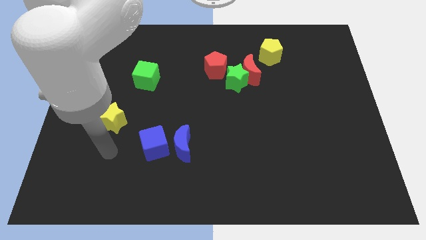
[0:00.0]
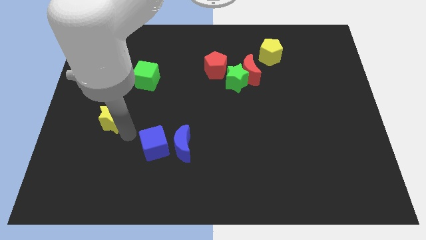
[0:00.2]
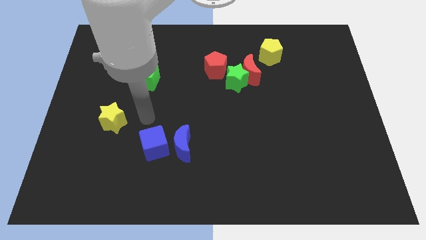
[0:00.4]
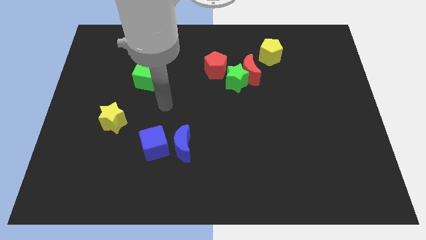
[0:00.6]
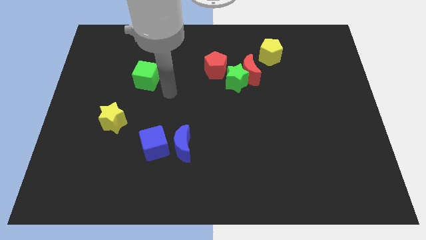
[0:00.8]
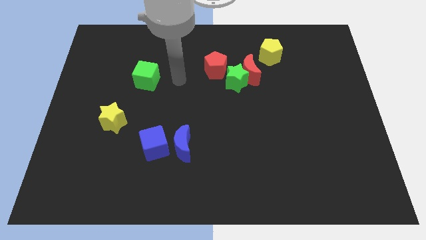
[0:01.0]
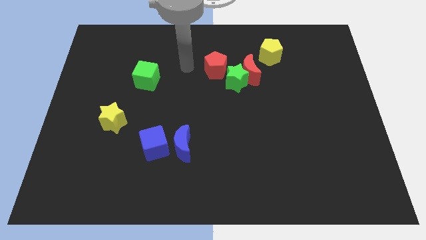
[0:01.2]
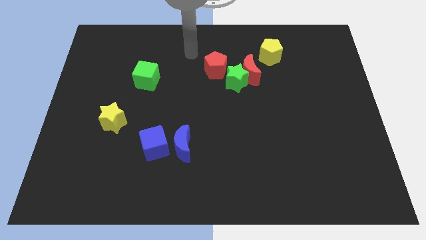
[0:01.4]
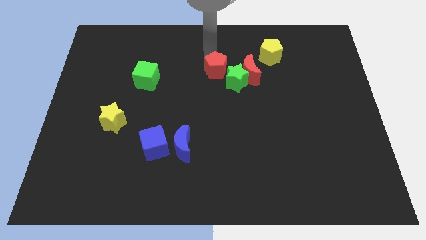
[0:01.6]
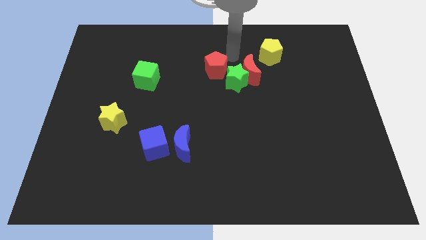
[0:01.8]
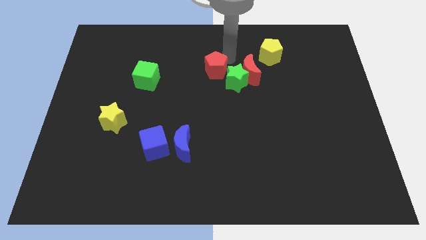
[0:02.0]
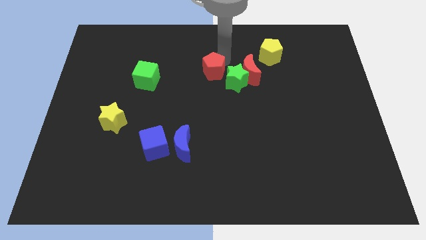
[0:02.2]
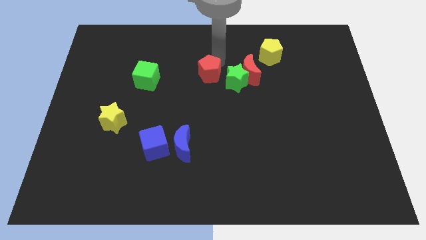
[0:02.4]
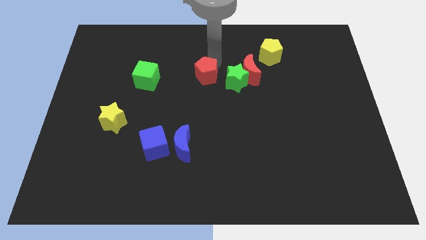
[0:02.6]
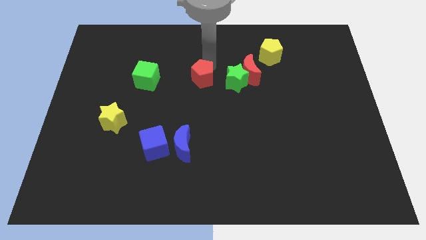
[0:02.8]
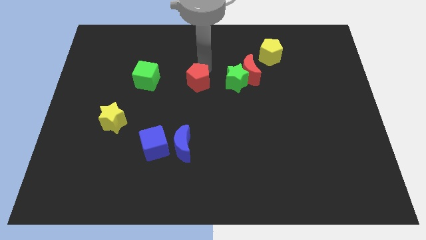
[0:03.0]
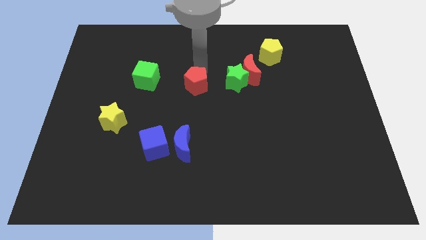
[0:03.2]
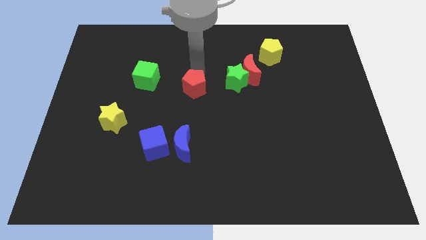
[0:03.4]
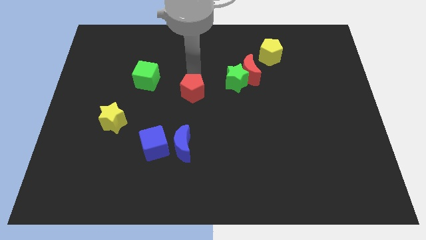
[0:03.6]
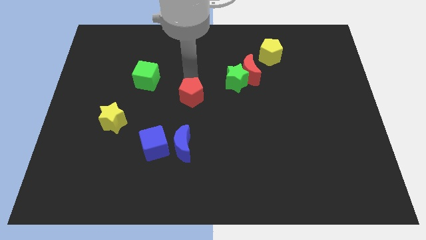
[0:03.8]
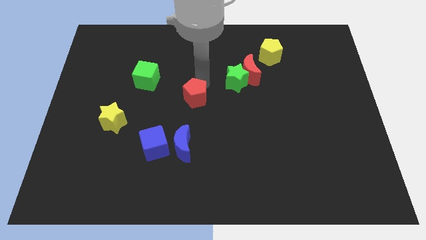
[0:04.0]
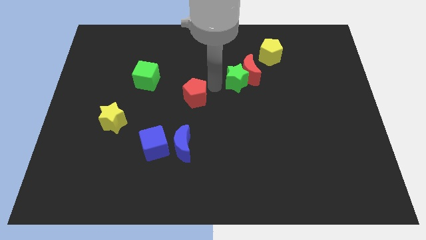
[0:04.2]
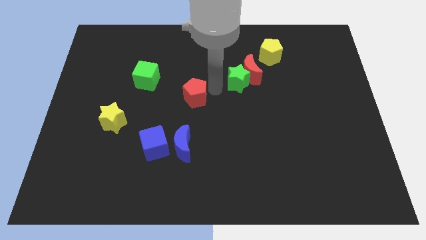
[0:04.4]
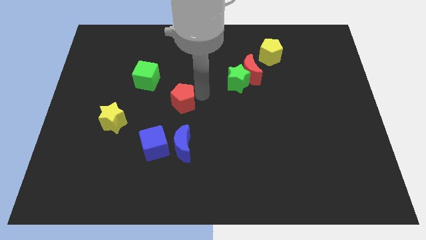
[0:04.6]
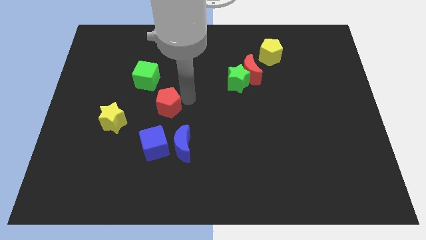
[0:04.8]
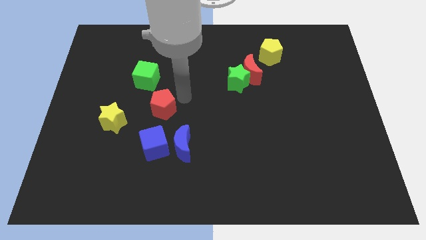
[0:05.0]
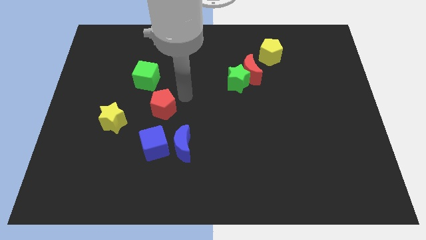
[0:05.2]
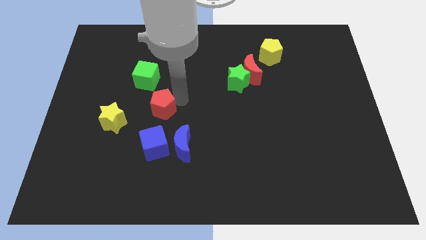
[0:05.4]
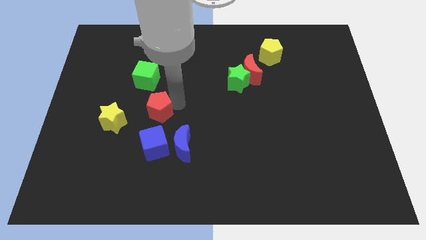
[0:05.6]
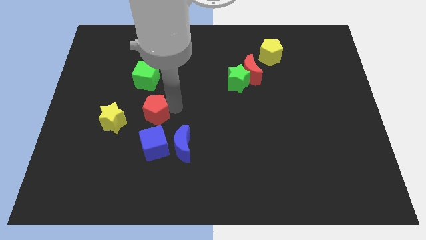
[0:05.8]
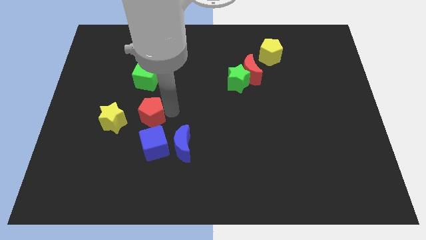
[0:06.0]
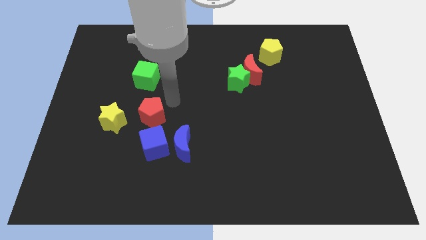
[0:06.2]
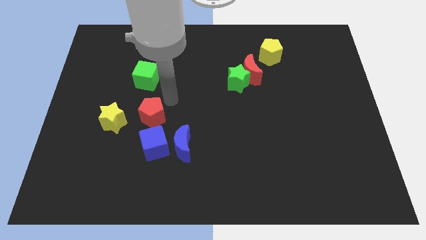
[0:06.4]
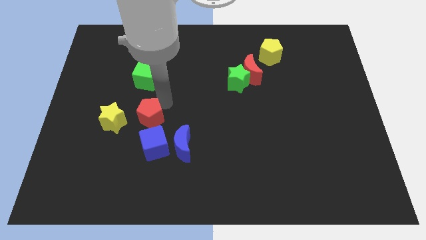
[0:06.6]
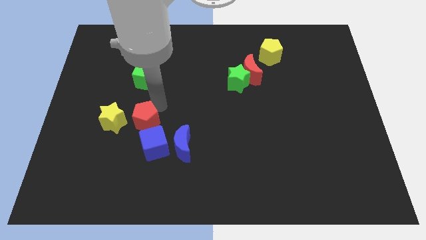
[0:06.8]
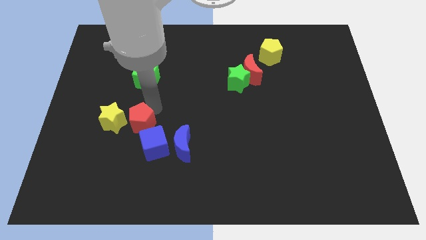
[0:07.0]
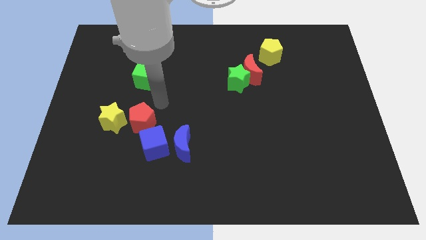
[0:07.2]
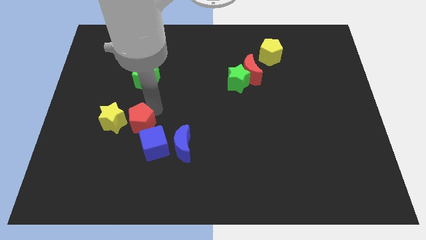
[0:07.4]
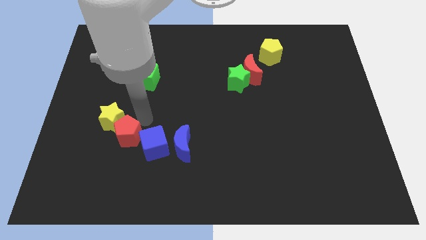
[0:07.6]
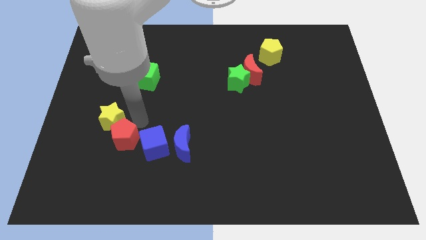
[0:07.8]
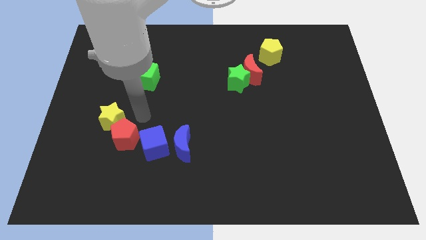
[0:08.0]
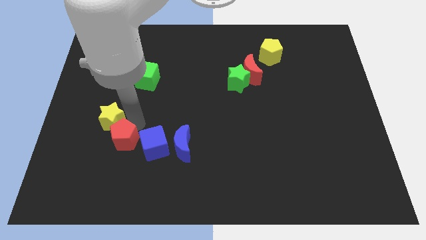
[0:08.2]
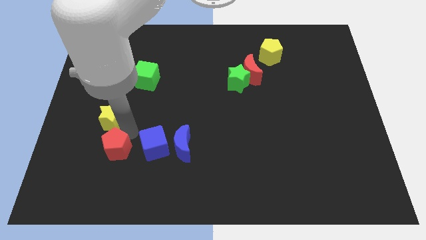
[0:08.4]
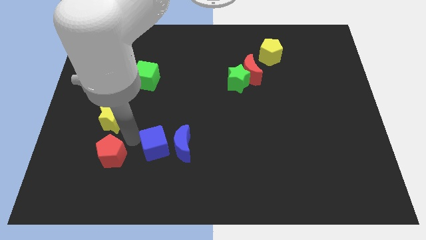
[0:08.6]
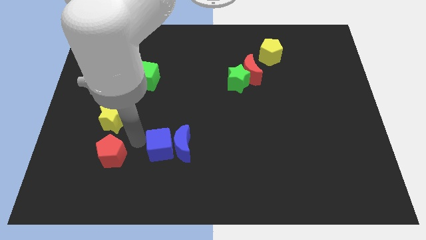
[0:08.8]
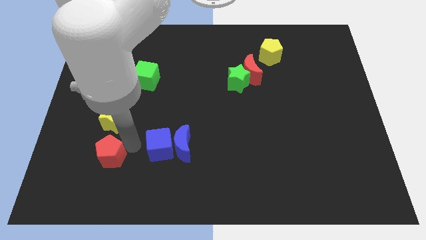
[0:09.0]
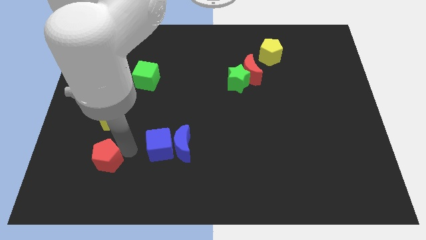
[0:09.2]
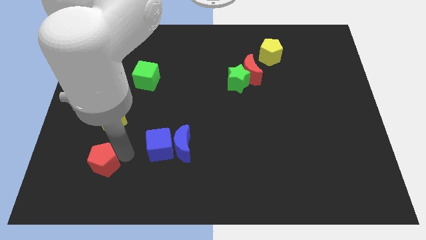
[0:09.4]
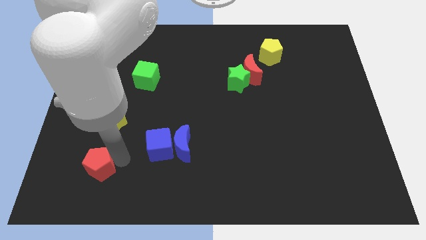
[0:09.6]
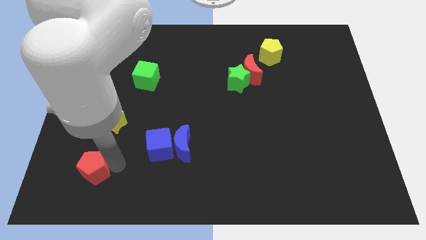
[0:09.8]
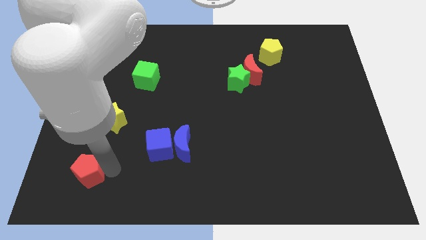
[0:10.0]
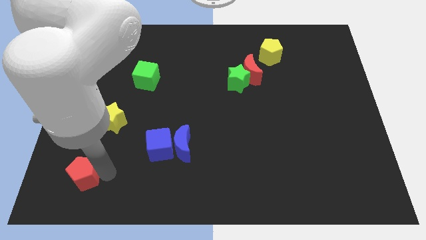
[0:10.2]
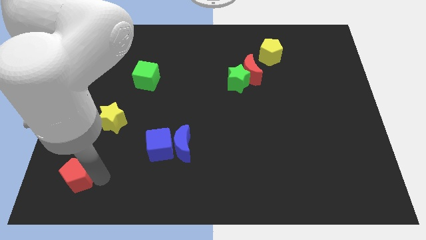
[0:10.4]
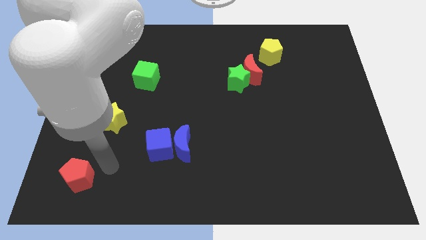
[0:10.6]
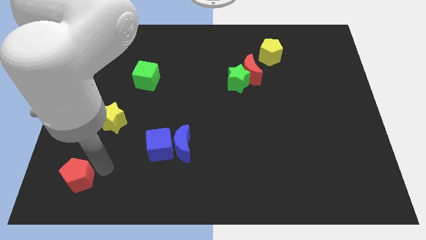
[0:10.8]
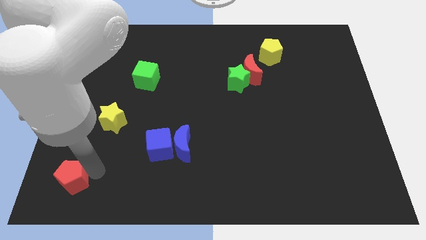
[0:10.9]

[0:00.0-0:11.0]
push the red pentagon to the bottom left corner

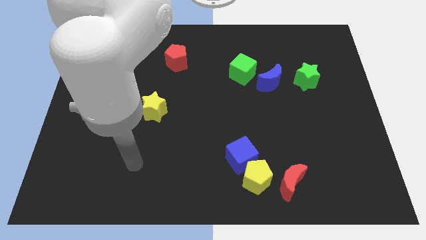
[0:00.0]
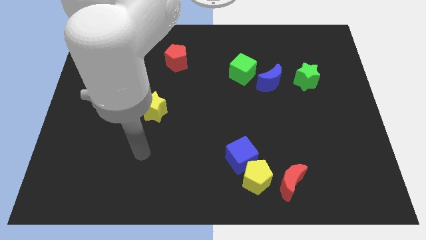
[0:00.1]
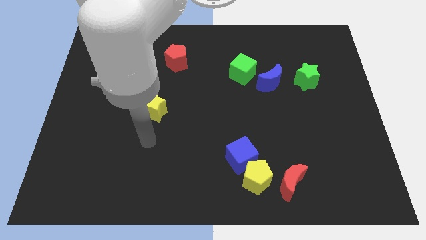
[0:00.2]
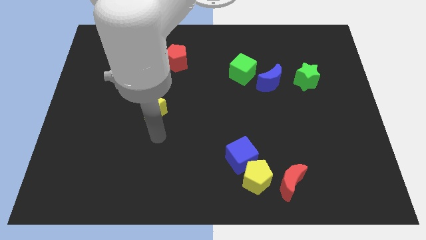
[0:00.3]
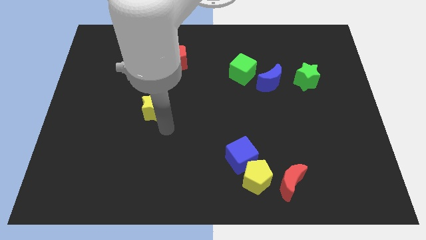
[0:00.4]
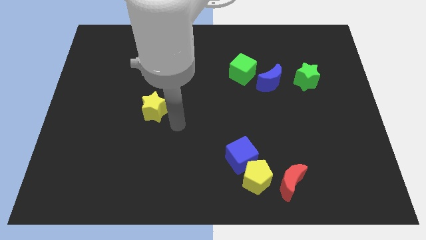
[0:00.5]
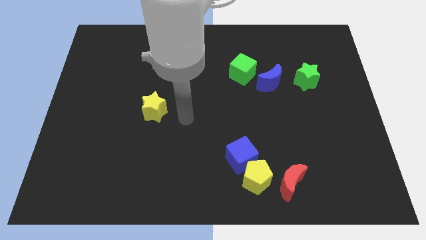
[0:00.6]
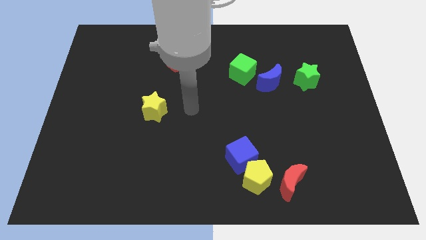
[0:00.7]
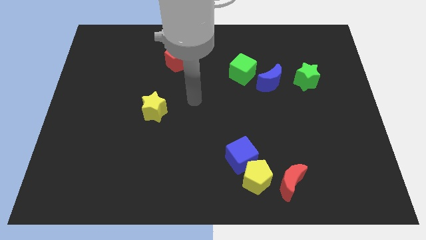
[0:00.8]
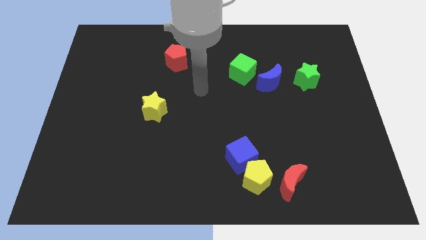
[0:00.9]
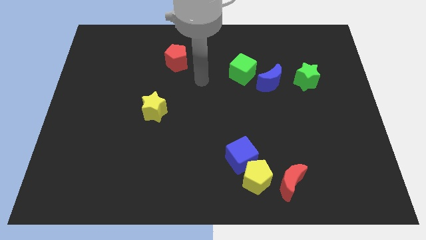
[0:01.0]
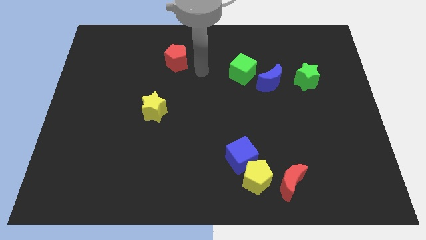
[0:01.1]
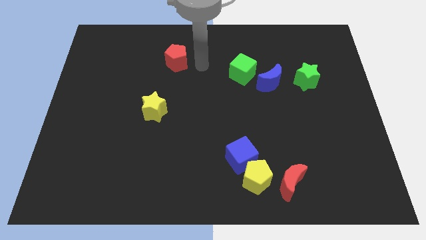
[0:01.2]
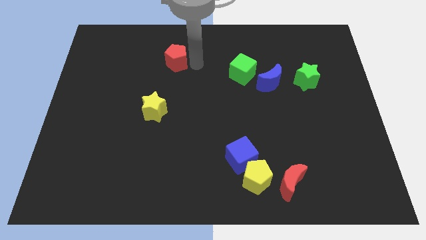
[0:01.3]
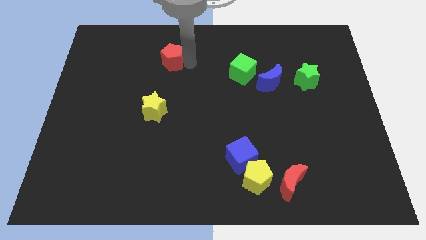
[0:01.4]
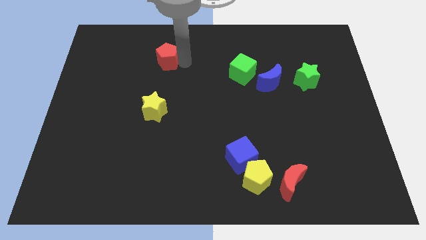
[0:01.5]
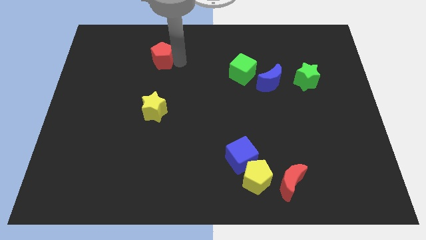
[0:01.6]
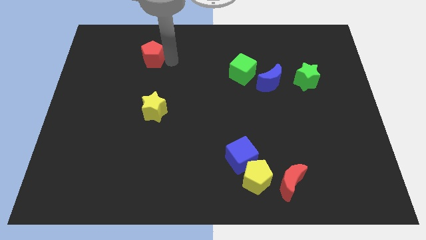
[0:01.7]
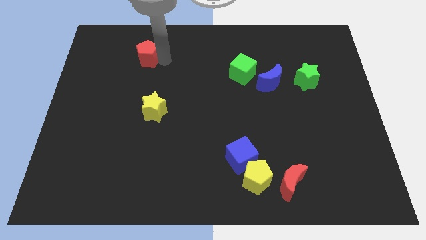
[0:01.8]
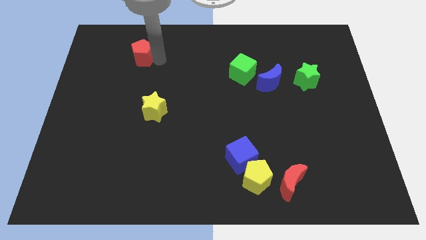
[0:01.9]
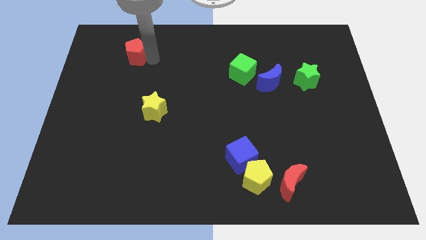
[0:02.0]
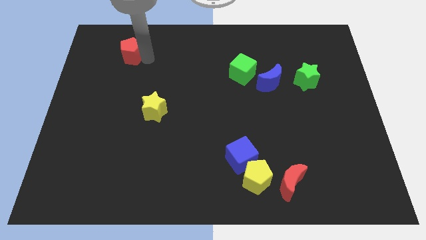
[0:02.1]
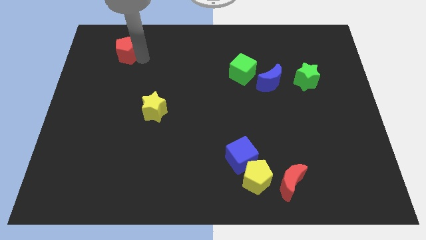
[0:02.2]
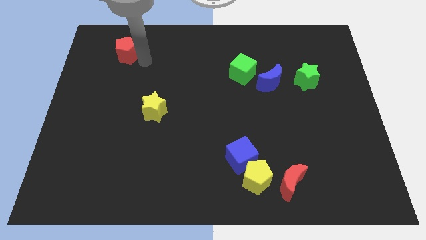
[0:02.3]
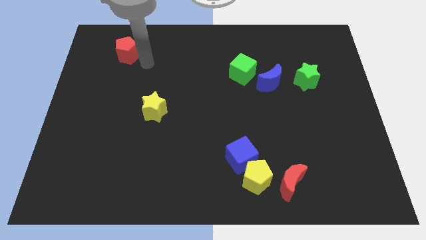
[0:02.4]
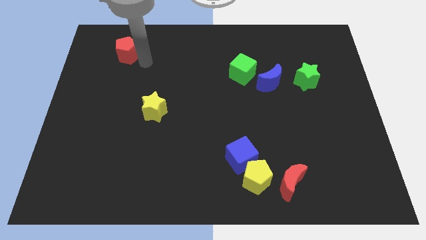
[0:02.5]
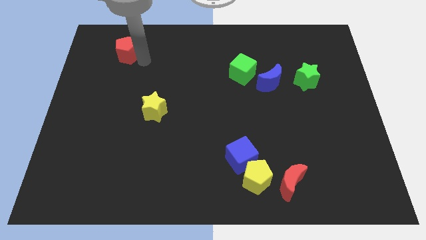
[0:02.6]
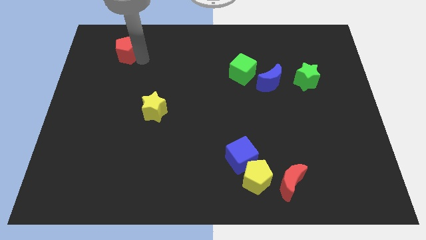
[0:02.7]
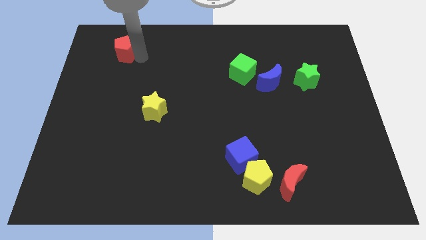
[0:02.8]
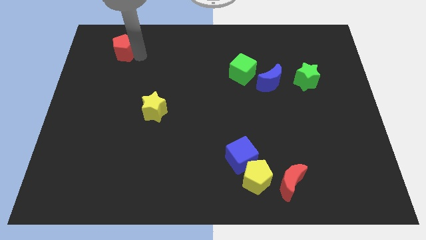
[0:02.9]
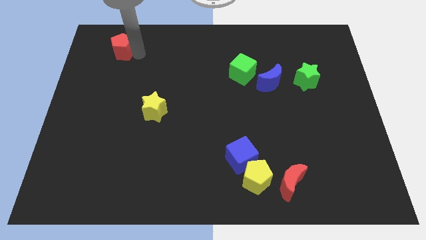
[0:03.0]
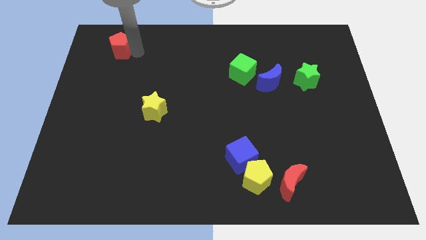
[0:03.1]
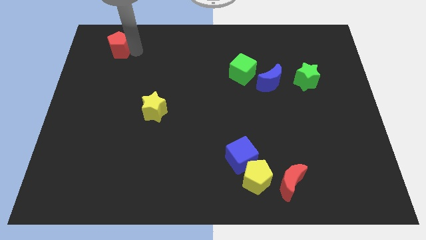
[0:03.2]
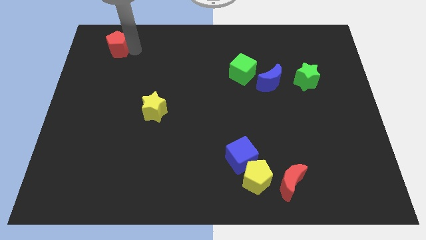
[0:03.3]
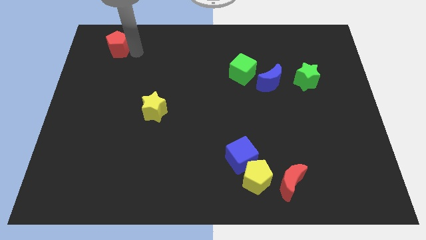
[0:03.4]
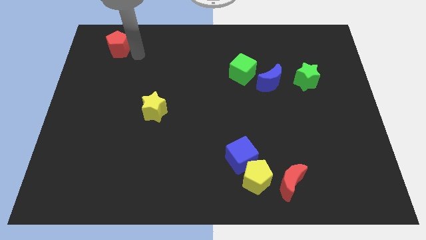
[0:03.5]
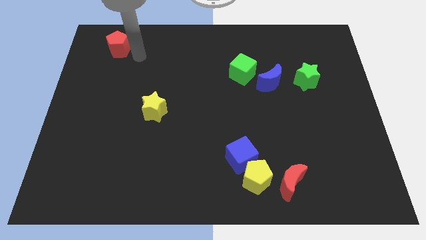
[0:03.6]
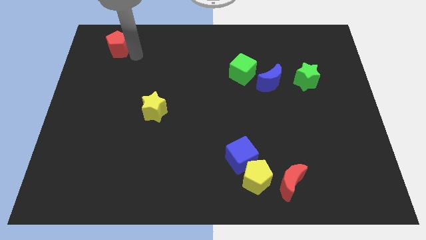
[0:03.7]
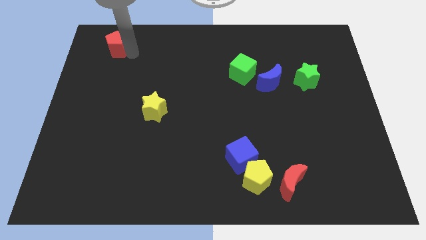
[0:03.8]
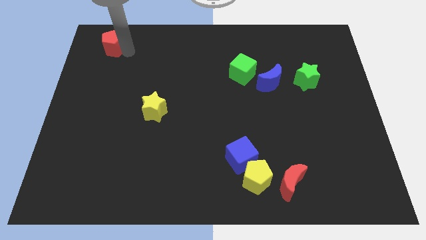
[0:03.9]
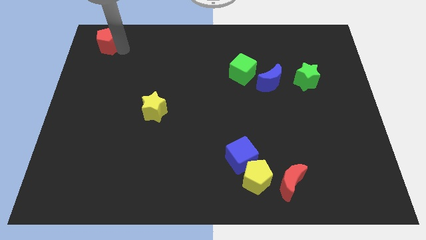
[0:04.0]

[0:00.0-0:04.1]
push the red pentagon to the top left
